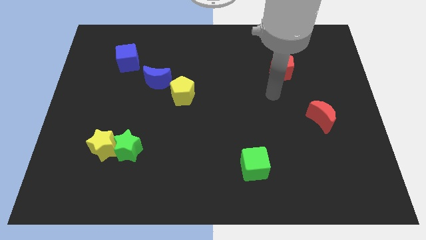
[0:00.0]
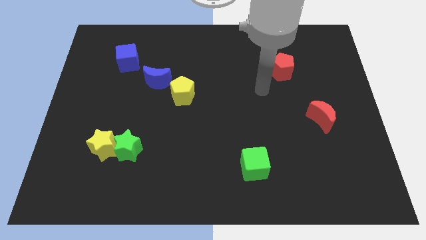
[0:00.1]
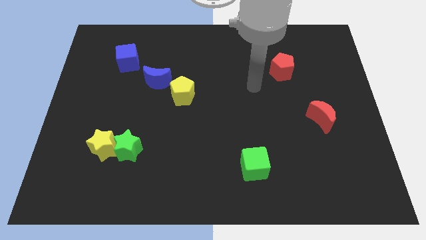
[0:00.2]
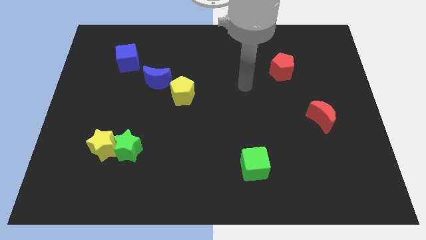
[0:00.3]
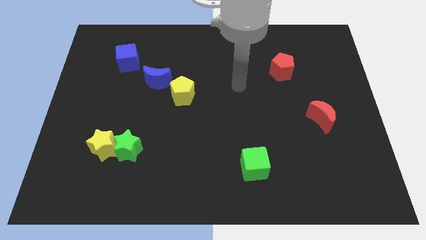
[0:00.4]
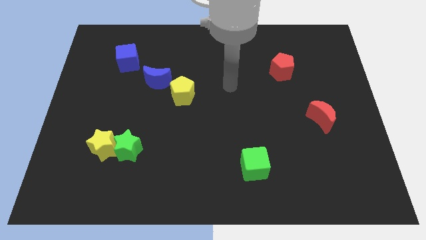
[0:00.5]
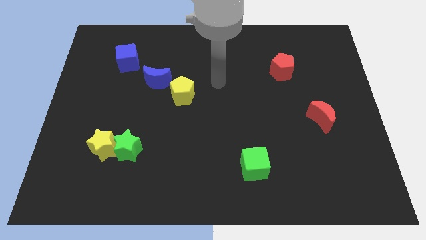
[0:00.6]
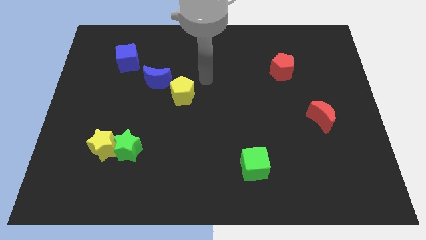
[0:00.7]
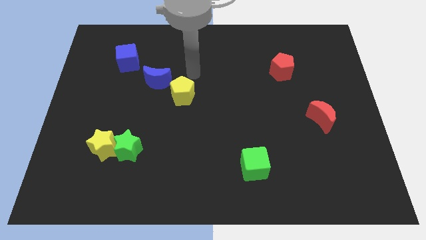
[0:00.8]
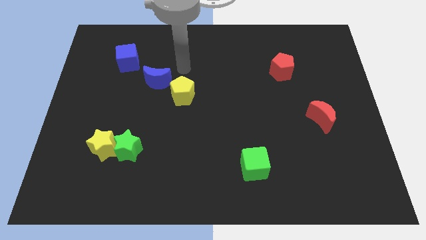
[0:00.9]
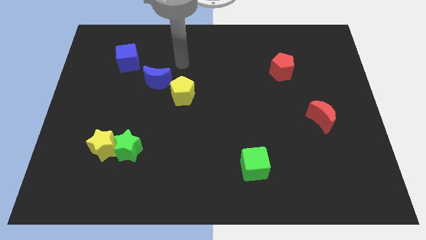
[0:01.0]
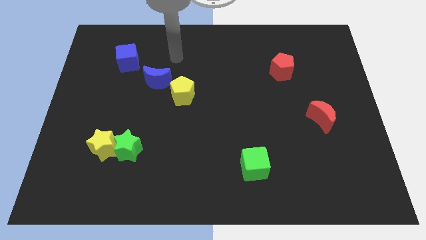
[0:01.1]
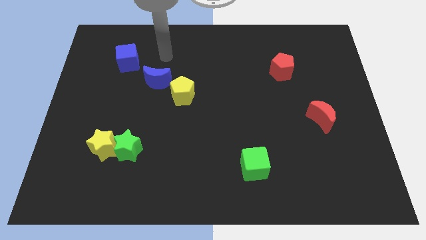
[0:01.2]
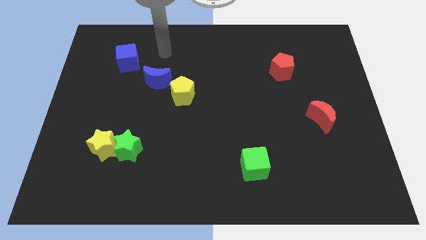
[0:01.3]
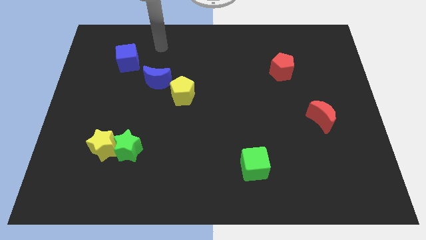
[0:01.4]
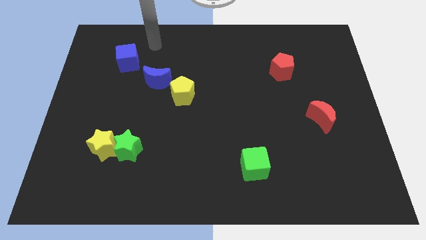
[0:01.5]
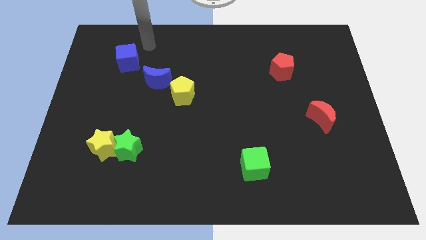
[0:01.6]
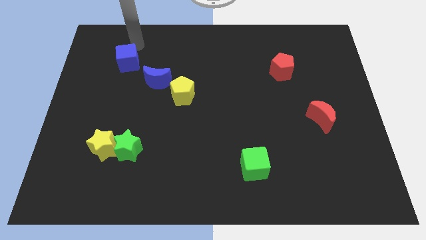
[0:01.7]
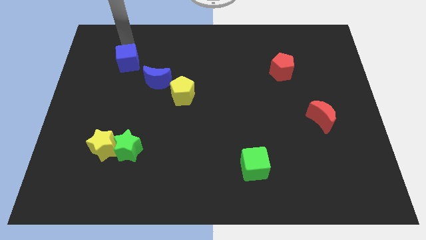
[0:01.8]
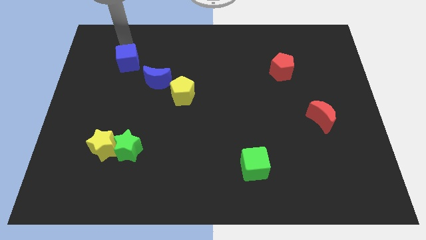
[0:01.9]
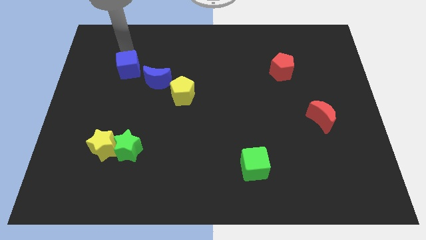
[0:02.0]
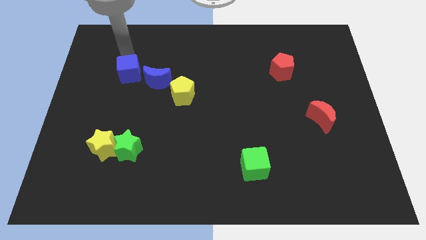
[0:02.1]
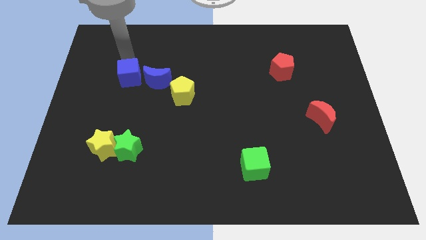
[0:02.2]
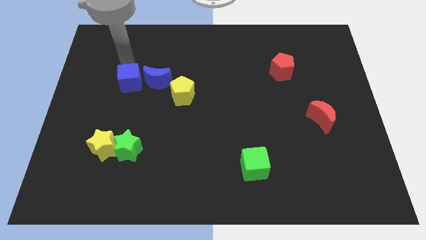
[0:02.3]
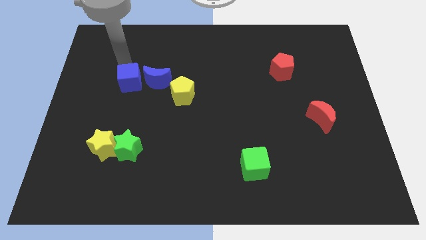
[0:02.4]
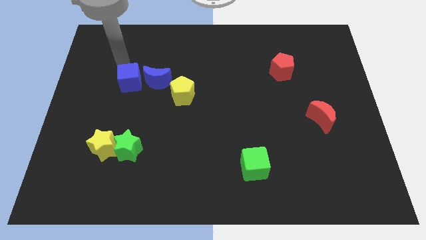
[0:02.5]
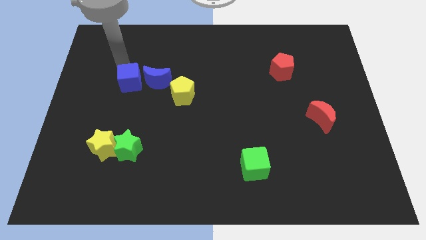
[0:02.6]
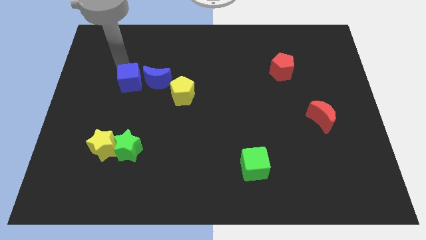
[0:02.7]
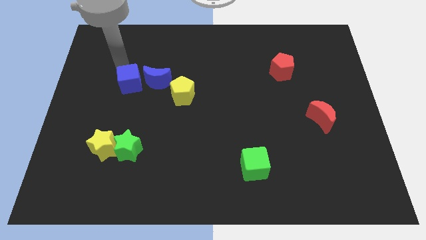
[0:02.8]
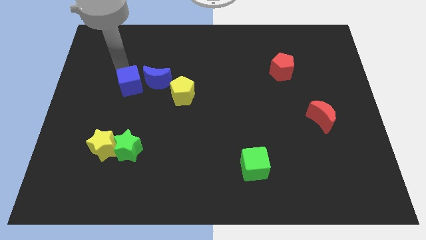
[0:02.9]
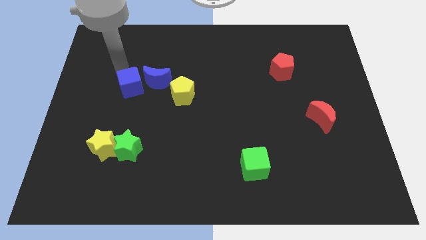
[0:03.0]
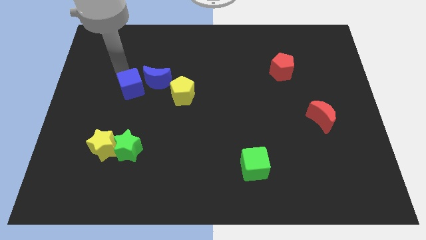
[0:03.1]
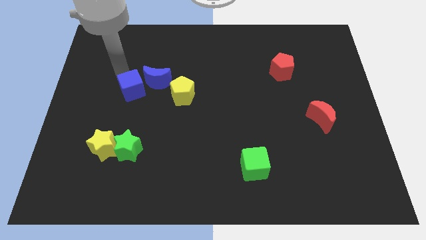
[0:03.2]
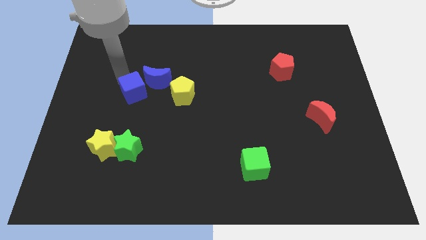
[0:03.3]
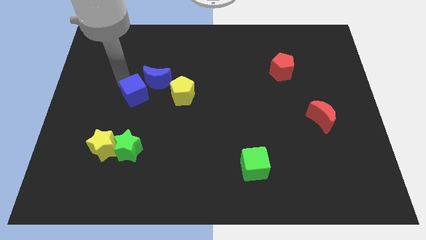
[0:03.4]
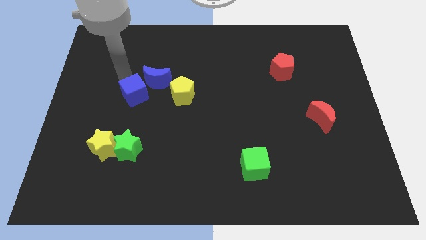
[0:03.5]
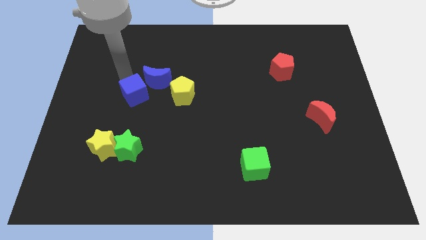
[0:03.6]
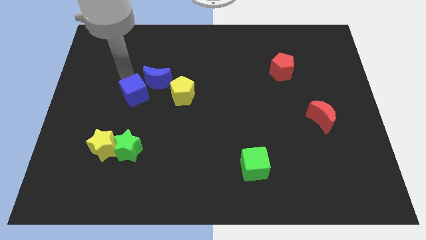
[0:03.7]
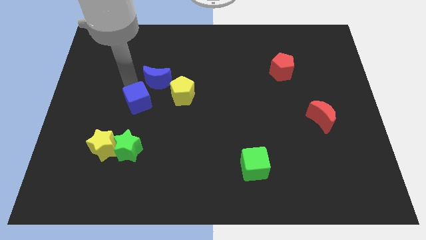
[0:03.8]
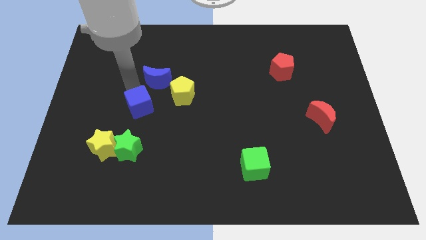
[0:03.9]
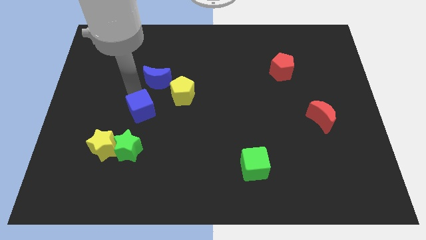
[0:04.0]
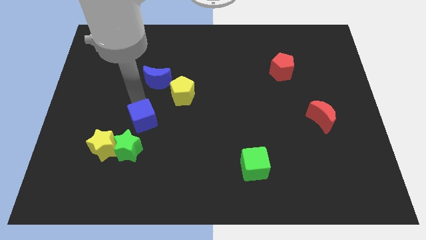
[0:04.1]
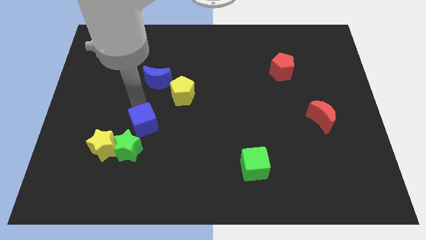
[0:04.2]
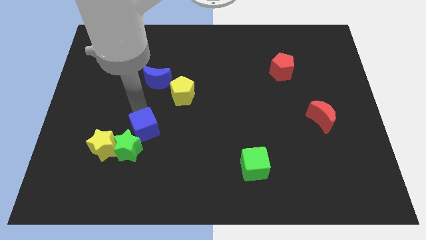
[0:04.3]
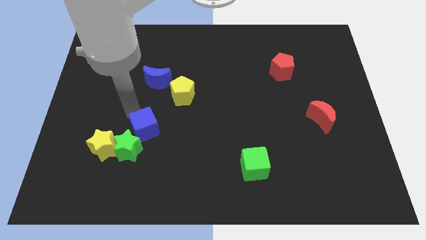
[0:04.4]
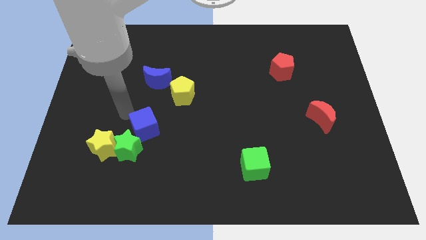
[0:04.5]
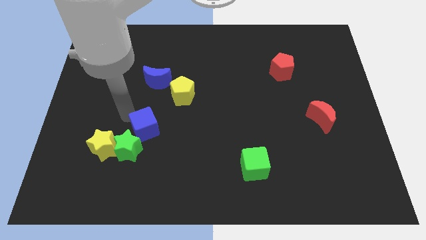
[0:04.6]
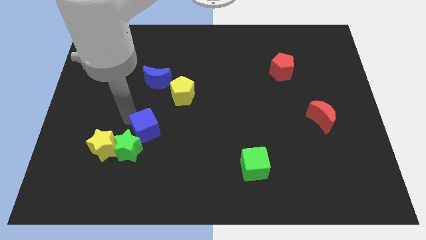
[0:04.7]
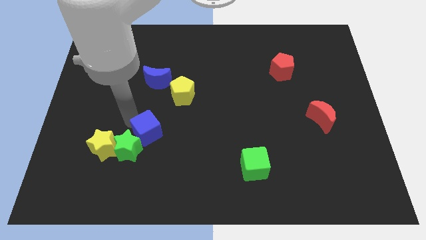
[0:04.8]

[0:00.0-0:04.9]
push the blue cube just right of the green star
